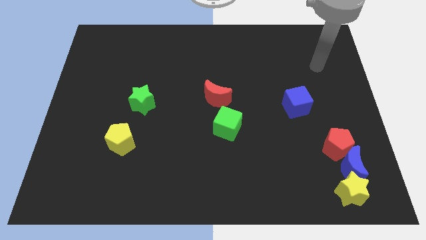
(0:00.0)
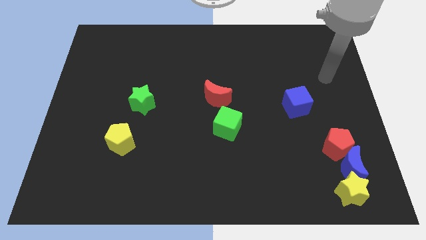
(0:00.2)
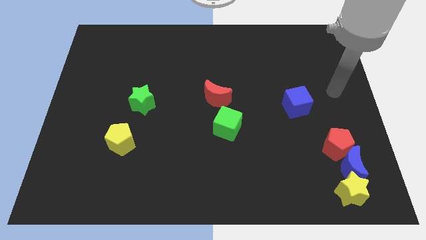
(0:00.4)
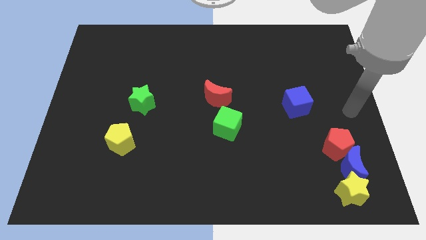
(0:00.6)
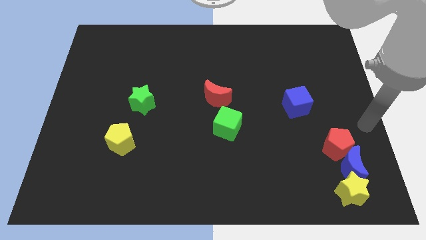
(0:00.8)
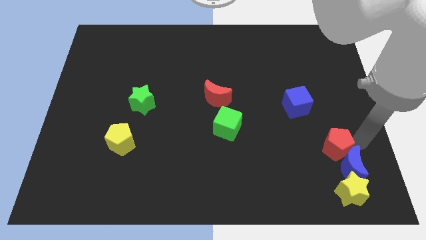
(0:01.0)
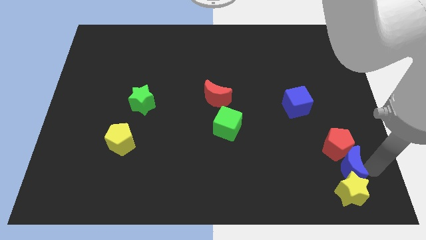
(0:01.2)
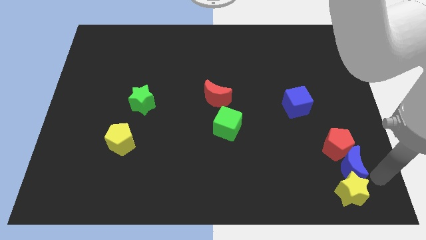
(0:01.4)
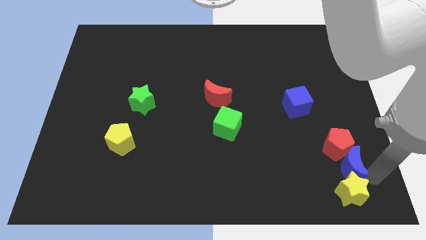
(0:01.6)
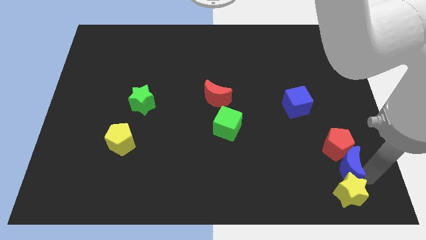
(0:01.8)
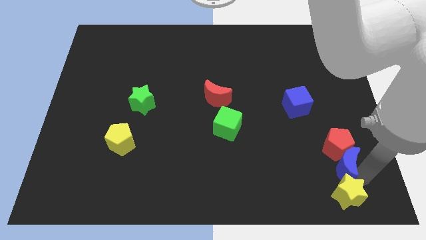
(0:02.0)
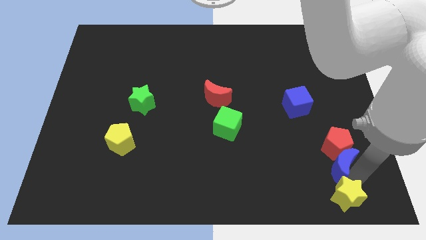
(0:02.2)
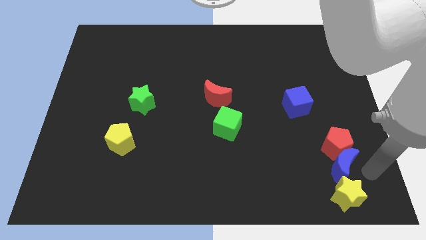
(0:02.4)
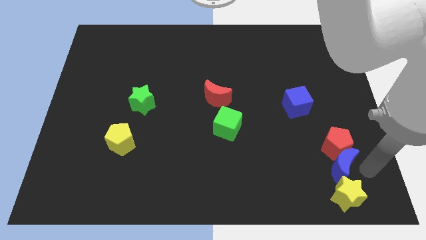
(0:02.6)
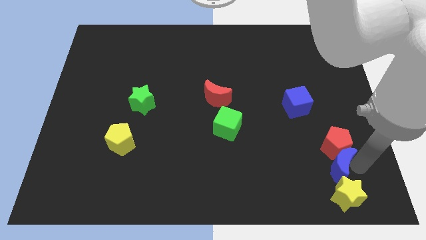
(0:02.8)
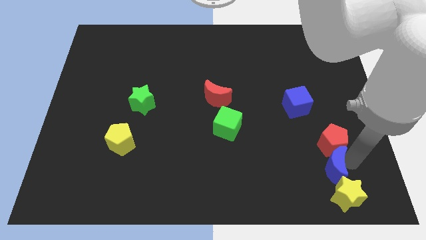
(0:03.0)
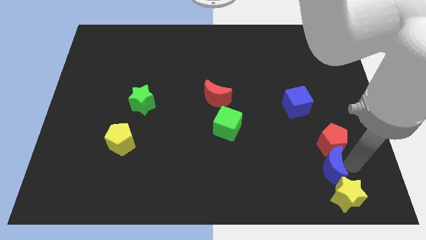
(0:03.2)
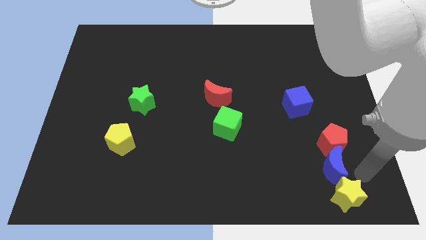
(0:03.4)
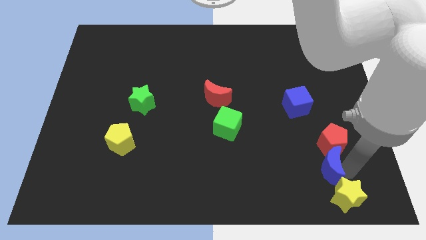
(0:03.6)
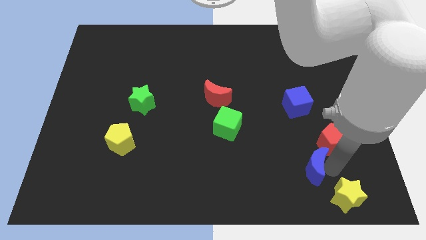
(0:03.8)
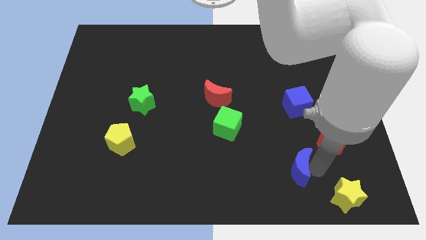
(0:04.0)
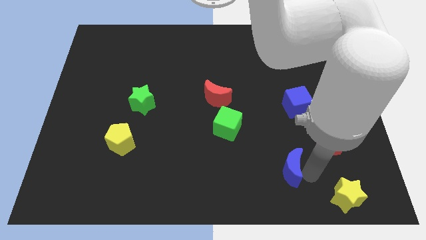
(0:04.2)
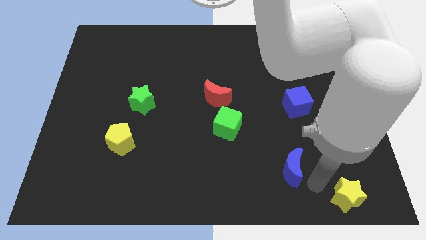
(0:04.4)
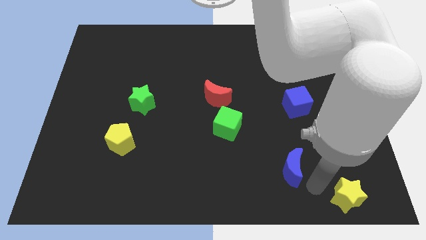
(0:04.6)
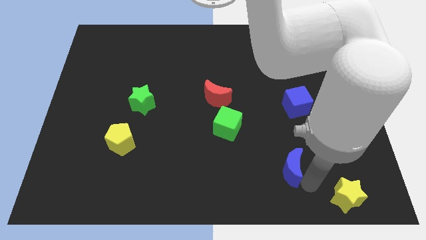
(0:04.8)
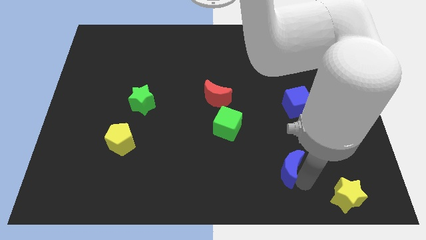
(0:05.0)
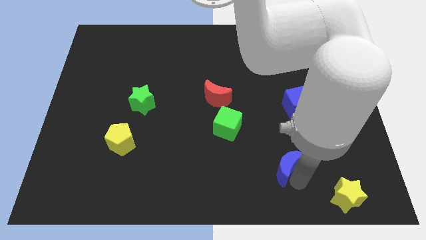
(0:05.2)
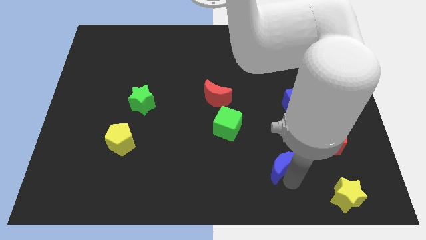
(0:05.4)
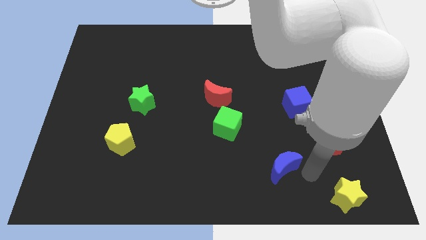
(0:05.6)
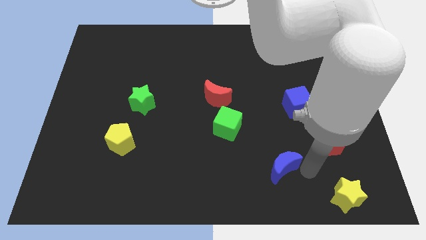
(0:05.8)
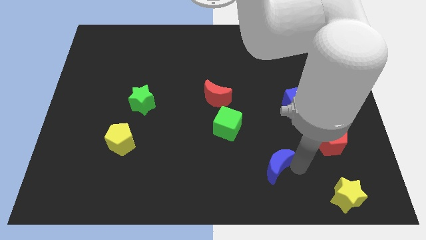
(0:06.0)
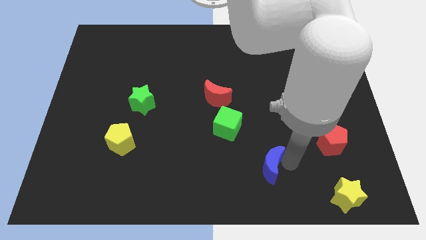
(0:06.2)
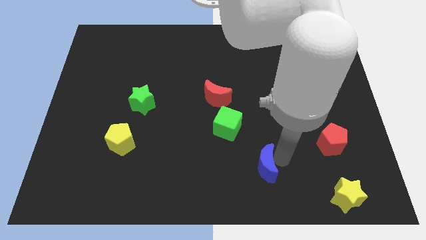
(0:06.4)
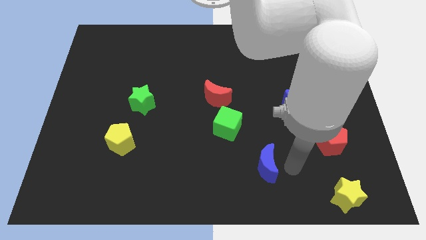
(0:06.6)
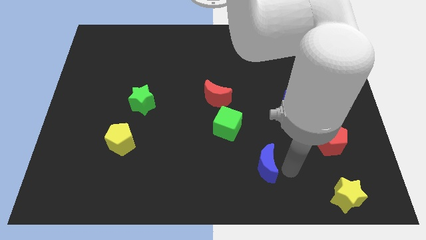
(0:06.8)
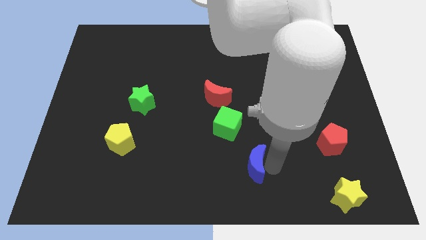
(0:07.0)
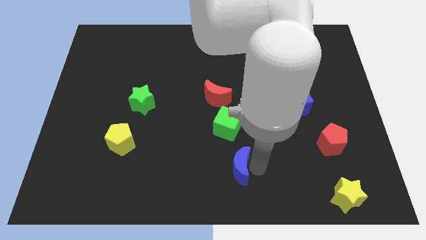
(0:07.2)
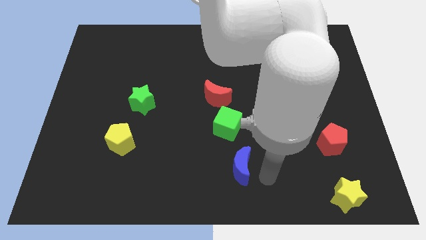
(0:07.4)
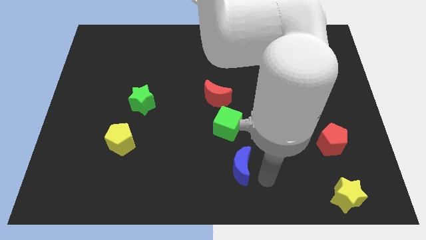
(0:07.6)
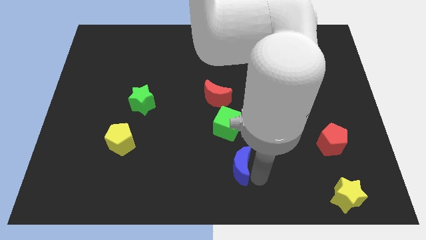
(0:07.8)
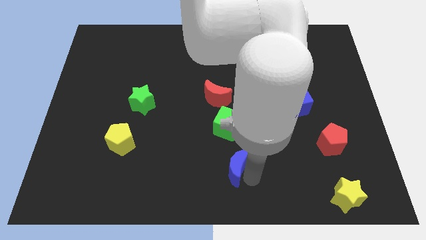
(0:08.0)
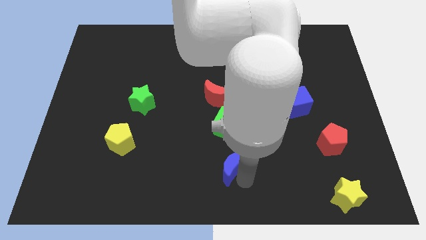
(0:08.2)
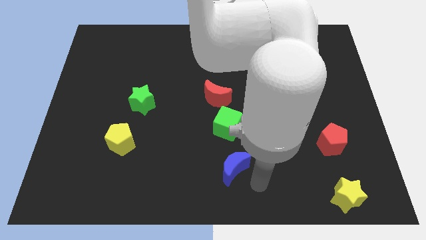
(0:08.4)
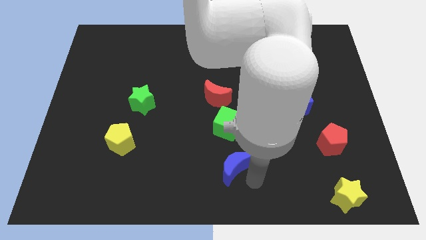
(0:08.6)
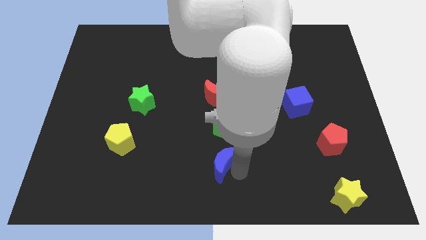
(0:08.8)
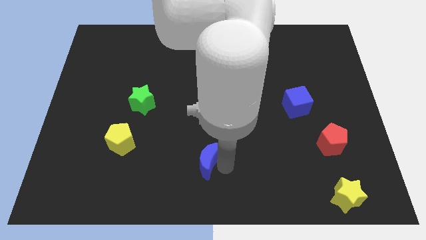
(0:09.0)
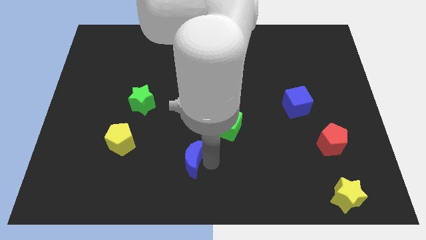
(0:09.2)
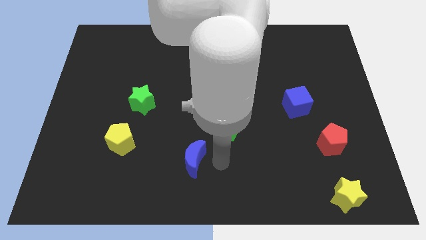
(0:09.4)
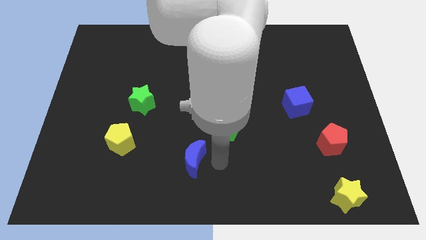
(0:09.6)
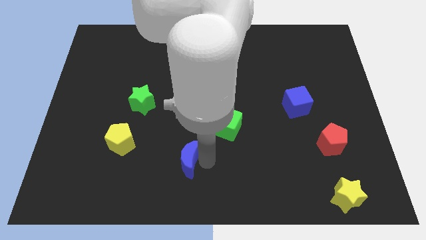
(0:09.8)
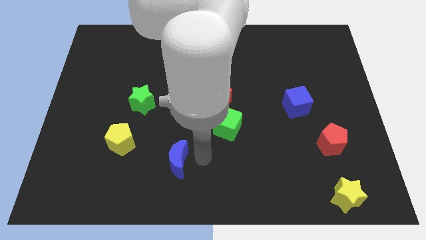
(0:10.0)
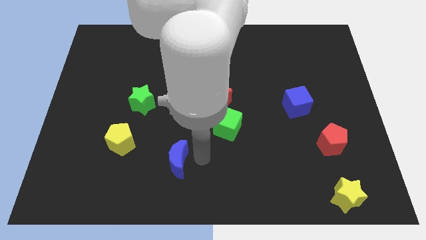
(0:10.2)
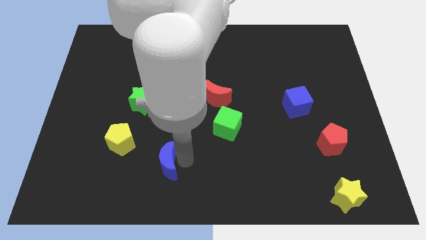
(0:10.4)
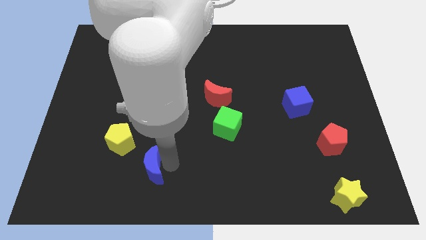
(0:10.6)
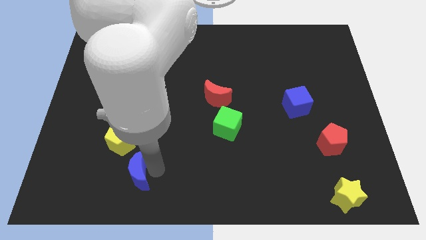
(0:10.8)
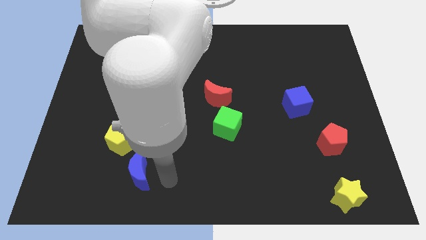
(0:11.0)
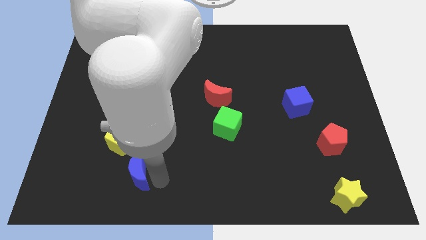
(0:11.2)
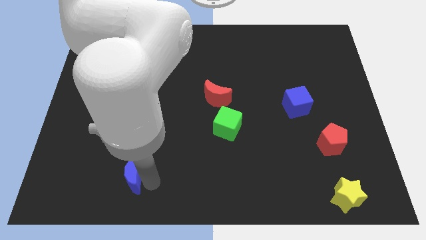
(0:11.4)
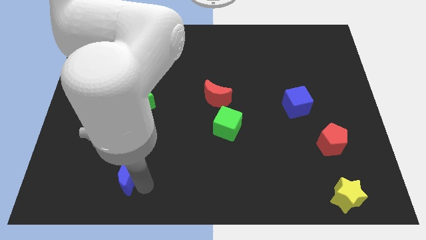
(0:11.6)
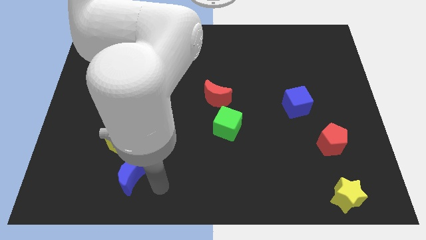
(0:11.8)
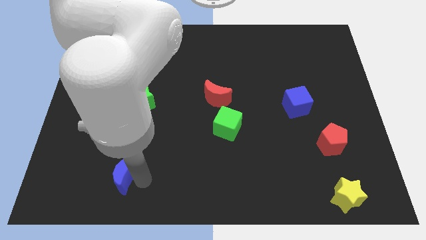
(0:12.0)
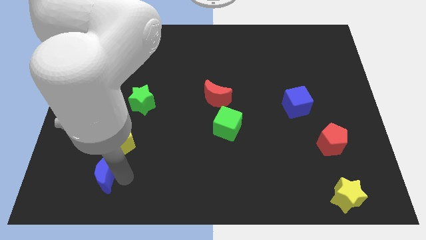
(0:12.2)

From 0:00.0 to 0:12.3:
slide the blue moon diagonally down and to the left of the yellow pentagon

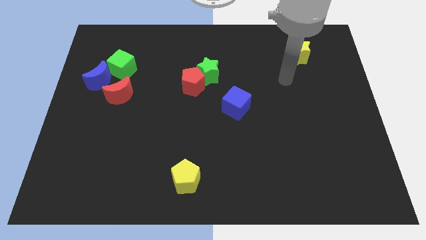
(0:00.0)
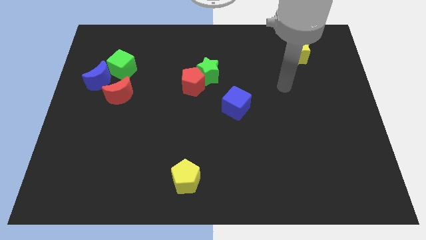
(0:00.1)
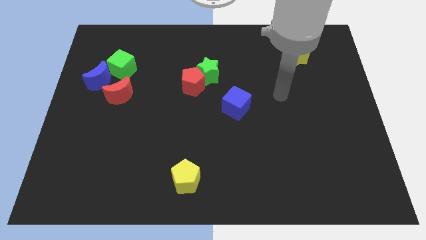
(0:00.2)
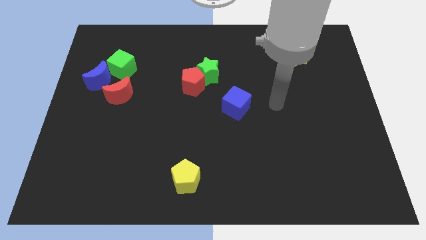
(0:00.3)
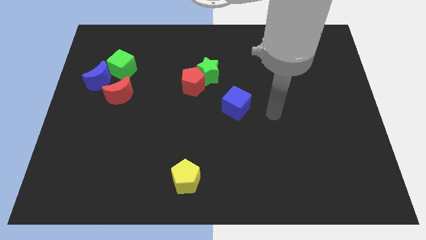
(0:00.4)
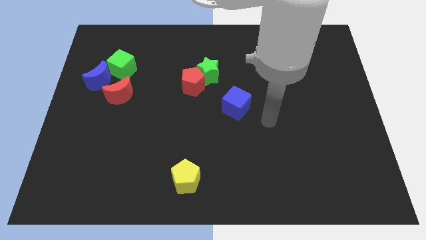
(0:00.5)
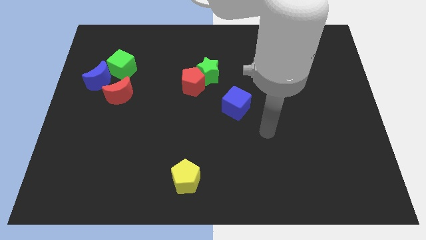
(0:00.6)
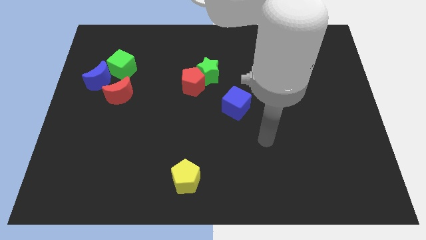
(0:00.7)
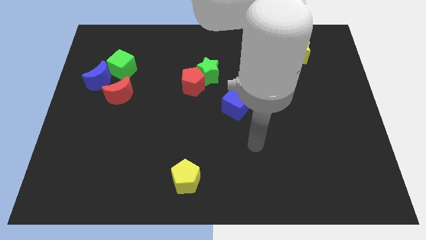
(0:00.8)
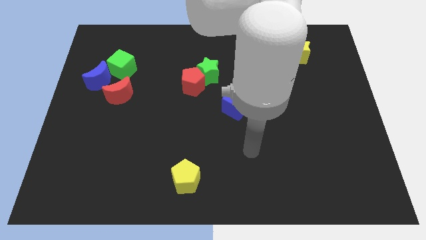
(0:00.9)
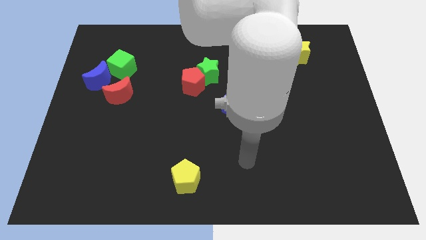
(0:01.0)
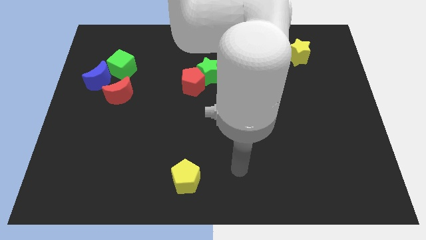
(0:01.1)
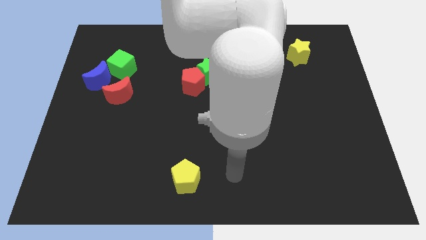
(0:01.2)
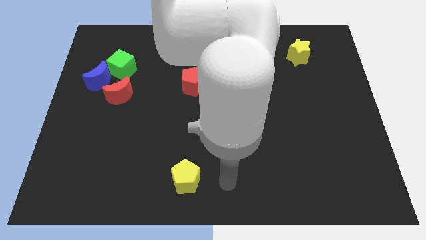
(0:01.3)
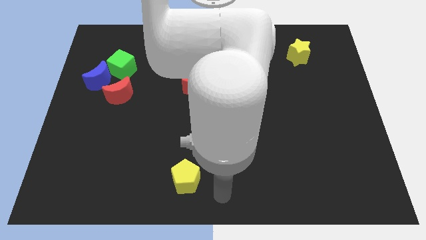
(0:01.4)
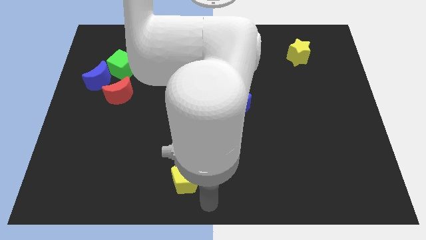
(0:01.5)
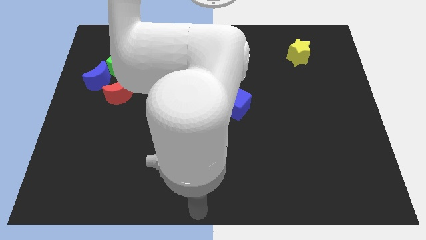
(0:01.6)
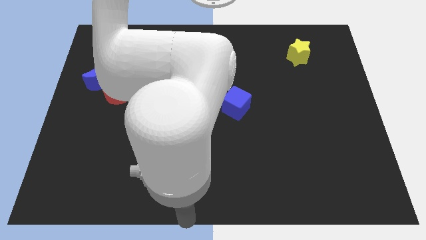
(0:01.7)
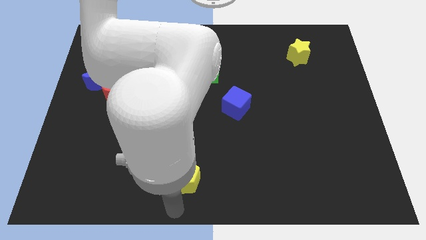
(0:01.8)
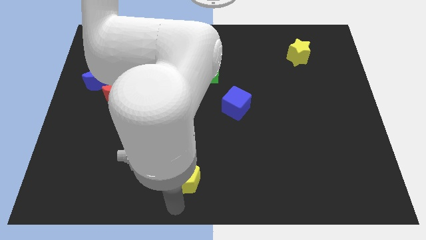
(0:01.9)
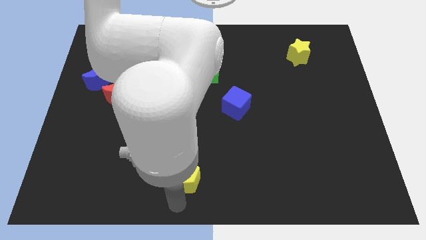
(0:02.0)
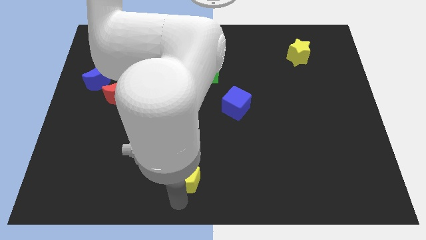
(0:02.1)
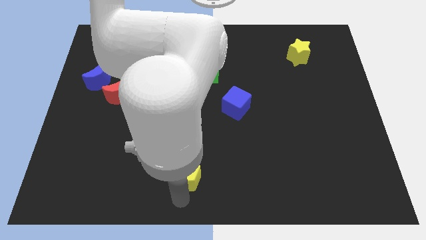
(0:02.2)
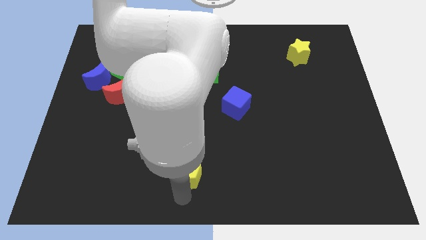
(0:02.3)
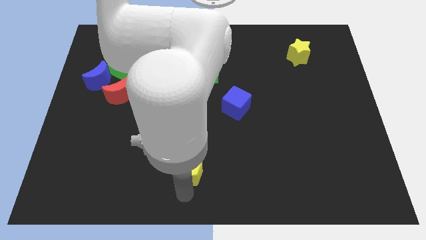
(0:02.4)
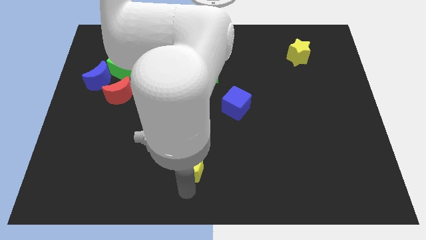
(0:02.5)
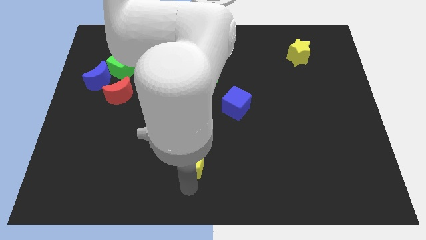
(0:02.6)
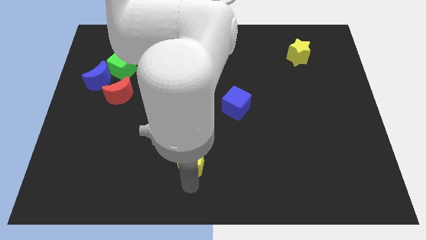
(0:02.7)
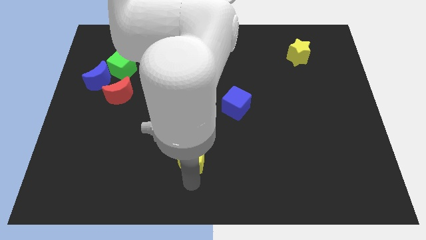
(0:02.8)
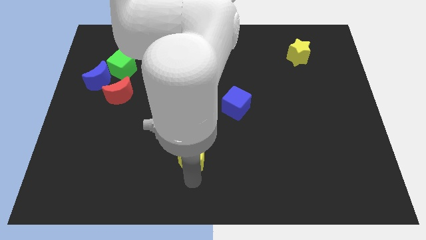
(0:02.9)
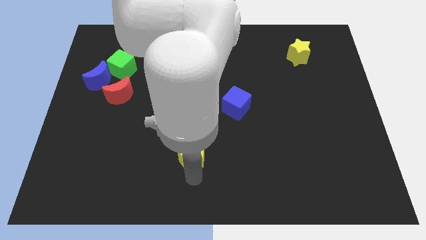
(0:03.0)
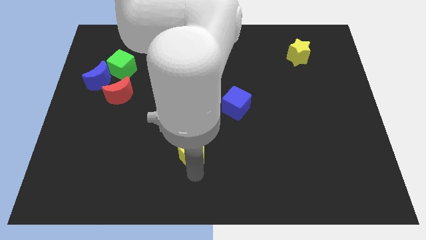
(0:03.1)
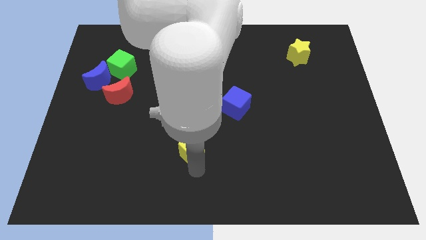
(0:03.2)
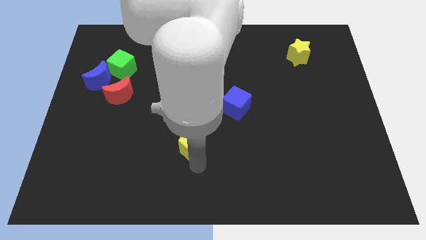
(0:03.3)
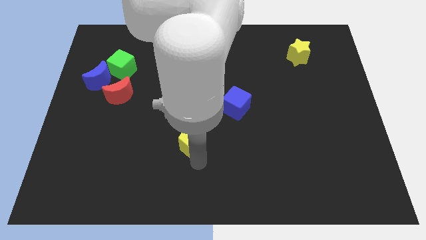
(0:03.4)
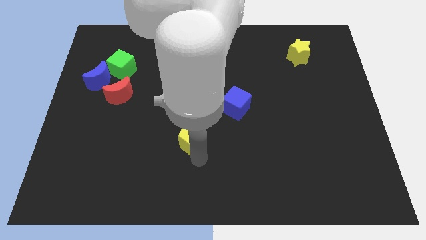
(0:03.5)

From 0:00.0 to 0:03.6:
slide the yellow pentagon below the red pentagon
